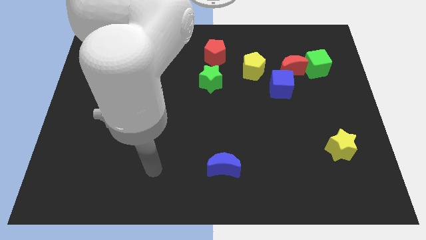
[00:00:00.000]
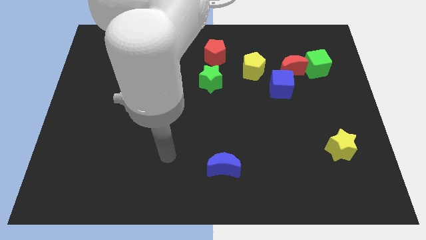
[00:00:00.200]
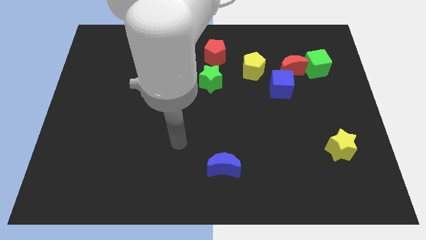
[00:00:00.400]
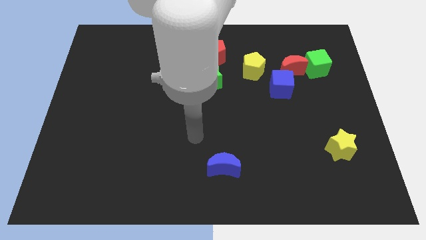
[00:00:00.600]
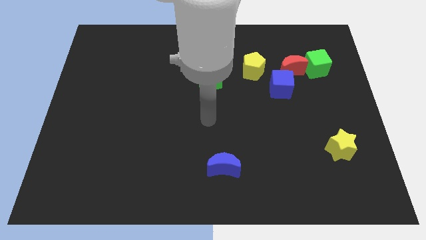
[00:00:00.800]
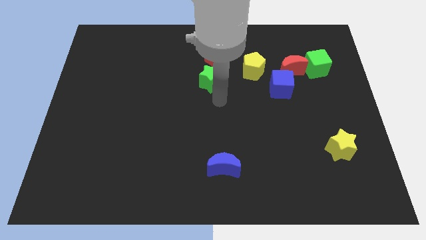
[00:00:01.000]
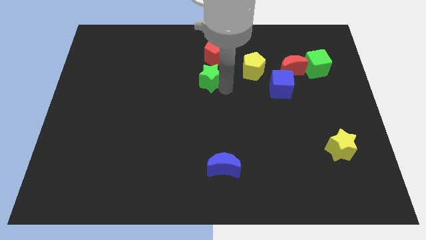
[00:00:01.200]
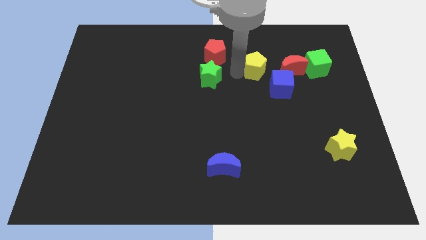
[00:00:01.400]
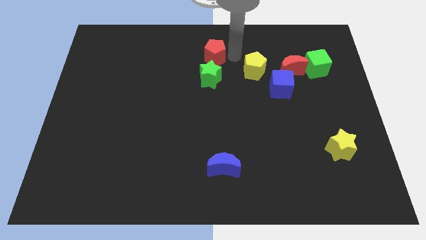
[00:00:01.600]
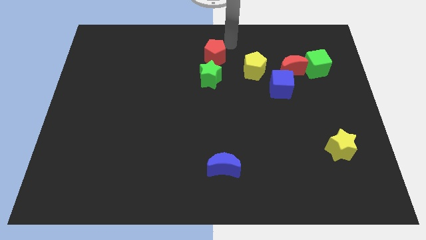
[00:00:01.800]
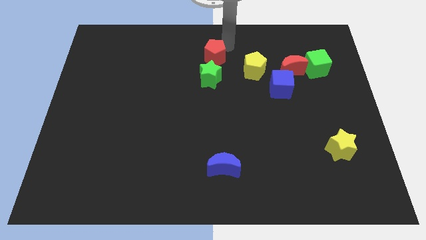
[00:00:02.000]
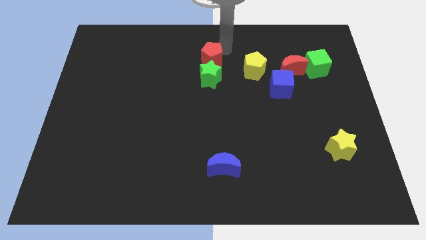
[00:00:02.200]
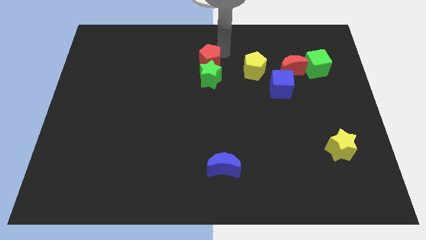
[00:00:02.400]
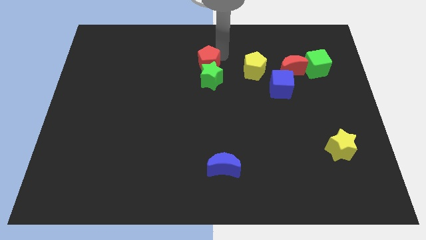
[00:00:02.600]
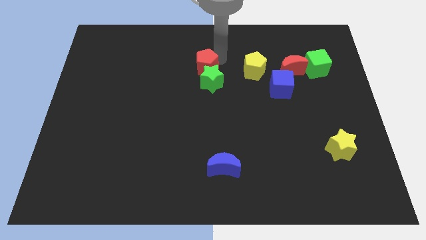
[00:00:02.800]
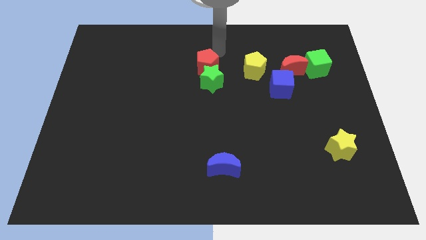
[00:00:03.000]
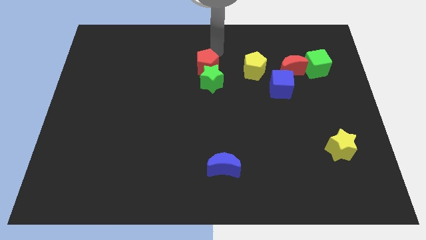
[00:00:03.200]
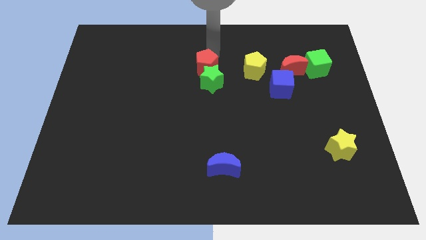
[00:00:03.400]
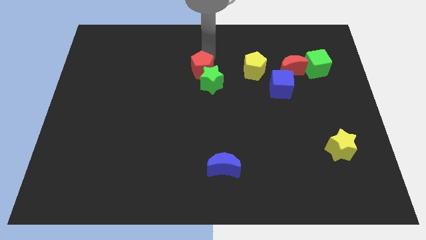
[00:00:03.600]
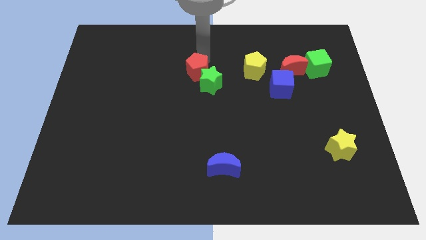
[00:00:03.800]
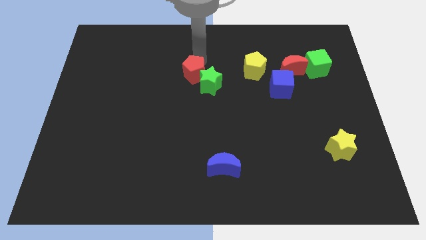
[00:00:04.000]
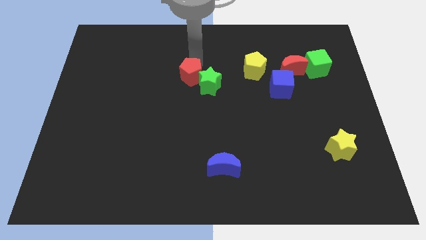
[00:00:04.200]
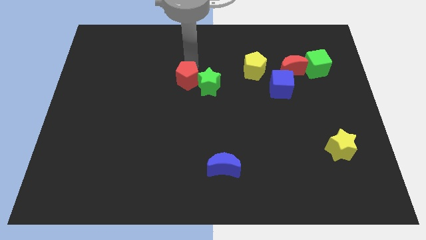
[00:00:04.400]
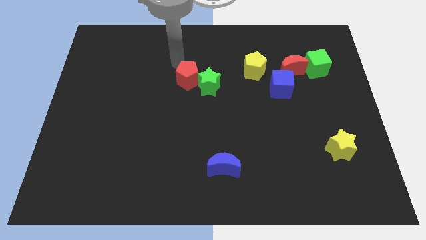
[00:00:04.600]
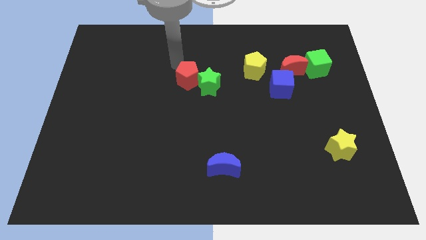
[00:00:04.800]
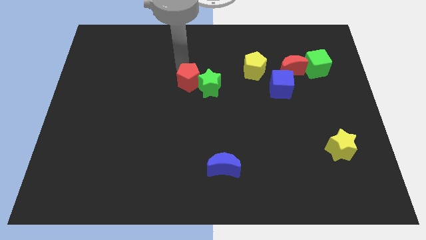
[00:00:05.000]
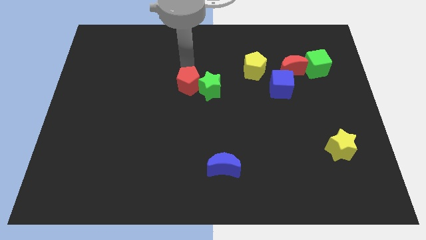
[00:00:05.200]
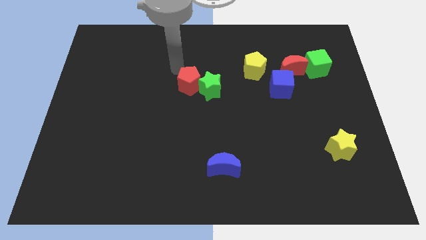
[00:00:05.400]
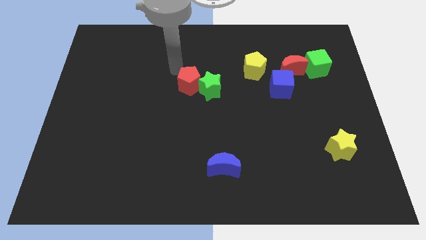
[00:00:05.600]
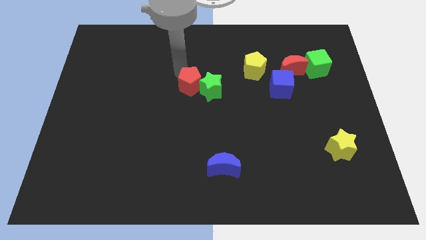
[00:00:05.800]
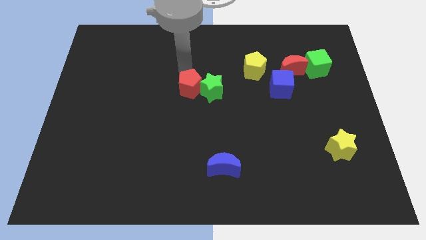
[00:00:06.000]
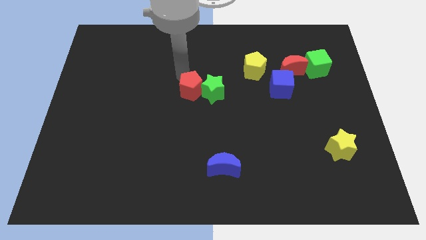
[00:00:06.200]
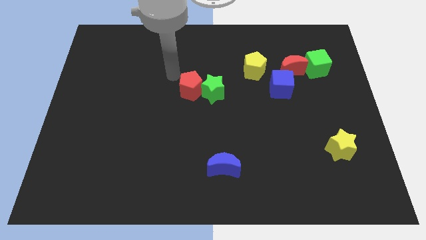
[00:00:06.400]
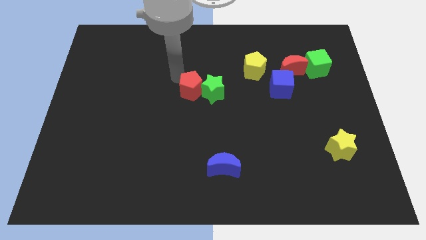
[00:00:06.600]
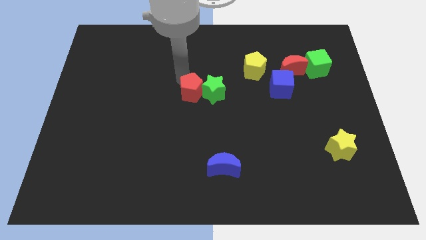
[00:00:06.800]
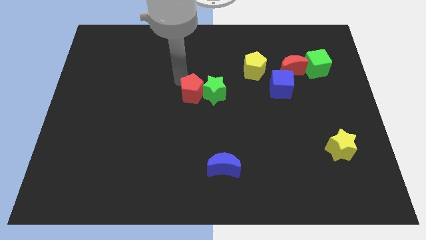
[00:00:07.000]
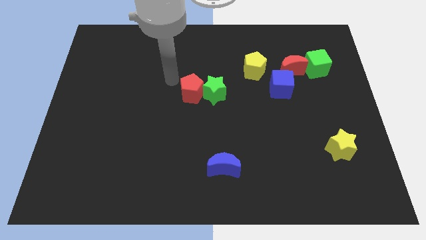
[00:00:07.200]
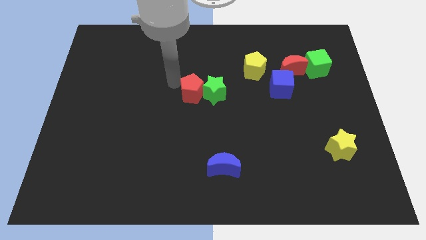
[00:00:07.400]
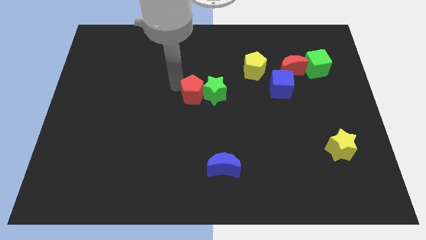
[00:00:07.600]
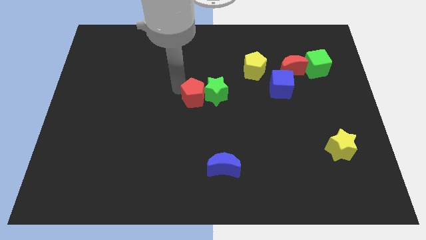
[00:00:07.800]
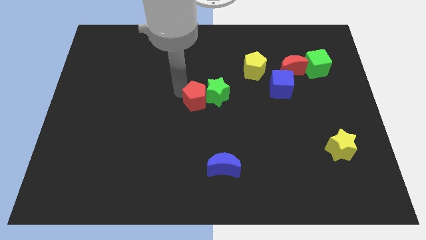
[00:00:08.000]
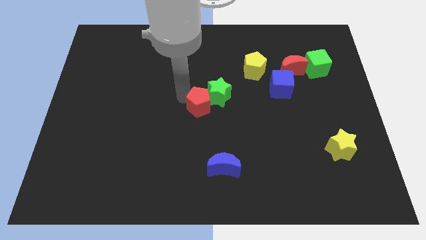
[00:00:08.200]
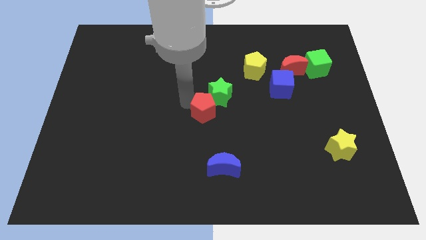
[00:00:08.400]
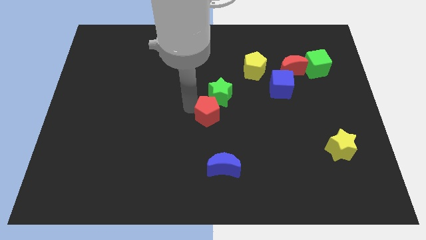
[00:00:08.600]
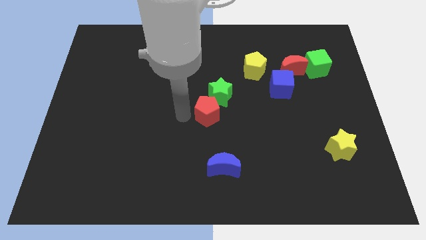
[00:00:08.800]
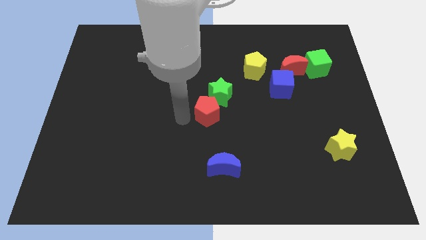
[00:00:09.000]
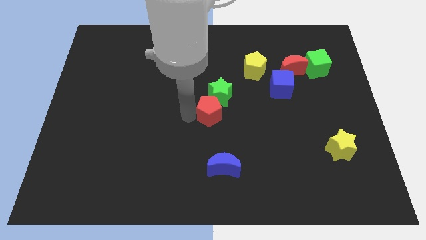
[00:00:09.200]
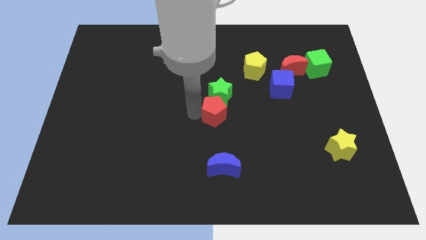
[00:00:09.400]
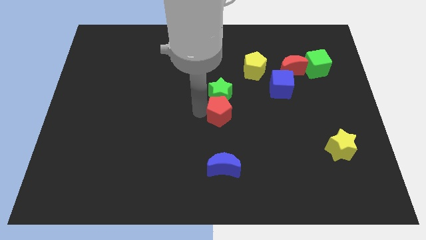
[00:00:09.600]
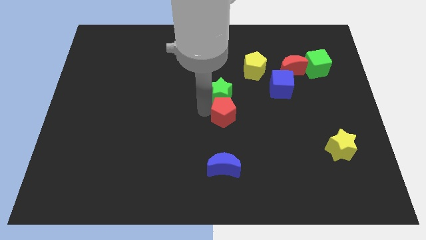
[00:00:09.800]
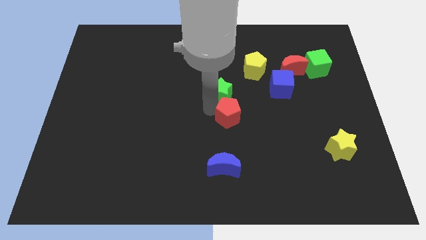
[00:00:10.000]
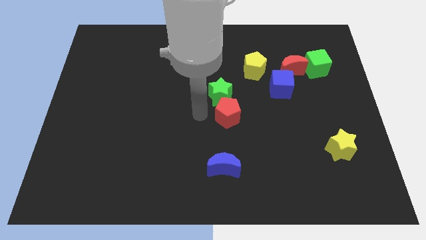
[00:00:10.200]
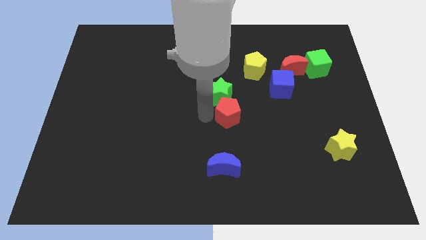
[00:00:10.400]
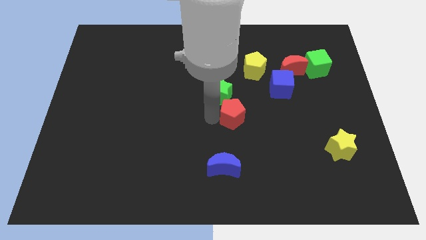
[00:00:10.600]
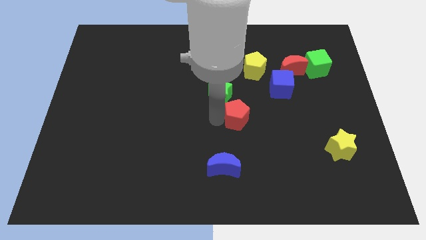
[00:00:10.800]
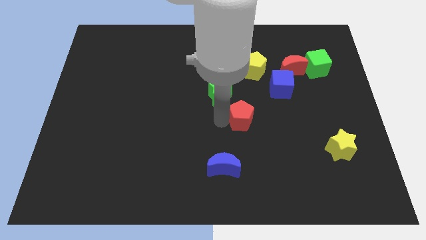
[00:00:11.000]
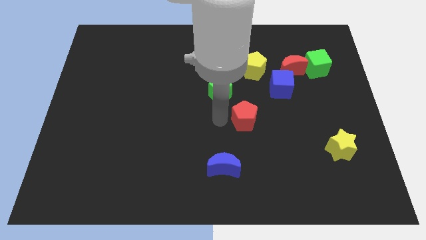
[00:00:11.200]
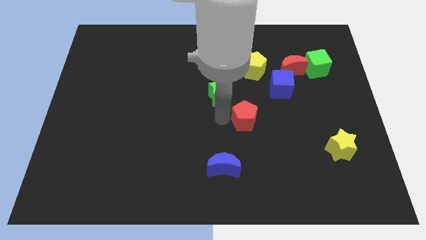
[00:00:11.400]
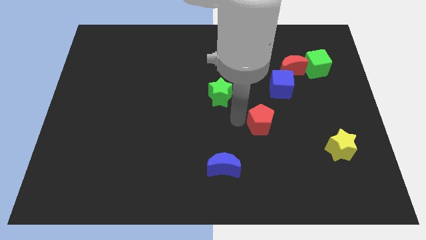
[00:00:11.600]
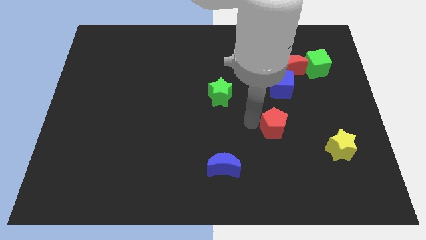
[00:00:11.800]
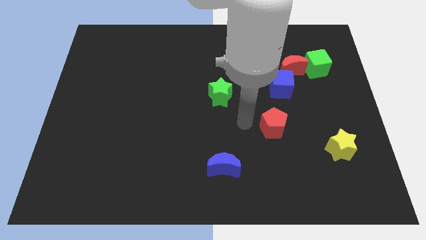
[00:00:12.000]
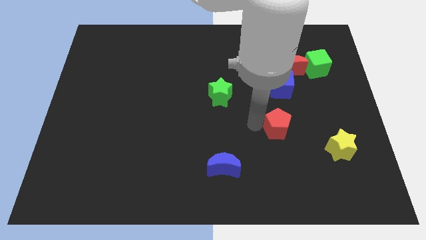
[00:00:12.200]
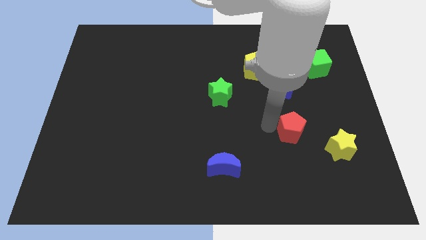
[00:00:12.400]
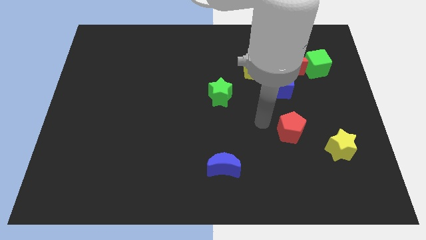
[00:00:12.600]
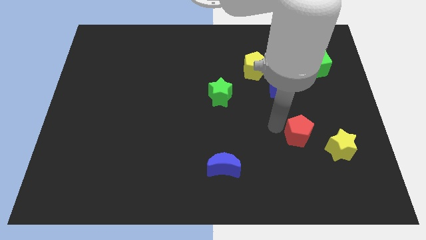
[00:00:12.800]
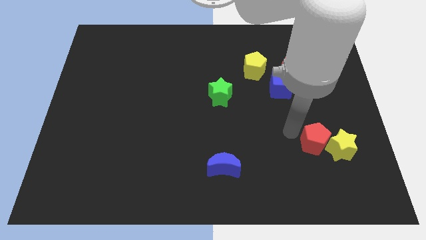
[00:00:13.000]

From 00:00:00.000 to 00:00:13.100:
put the red pentagon next to the yellow star

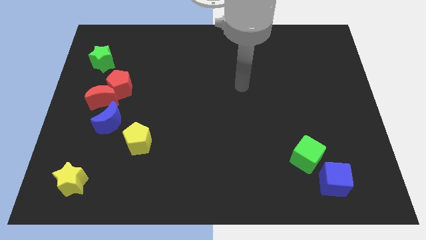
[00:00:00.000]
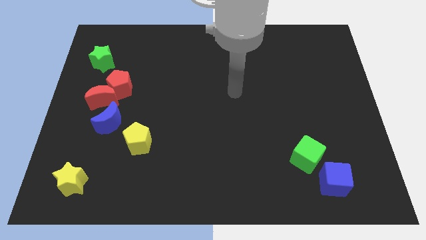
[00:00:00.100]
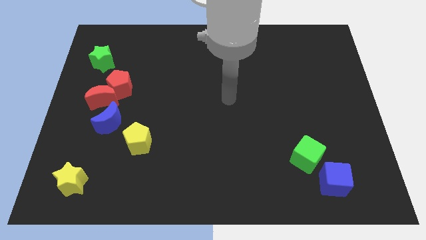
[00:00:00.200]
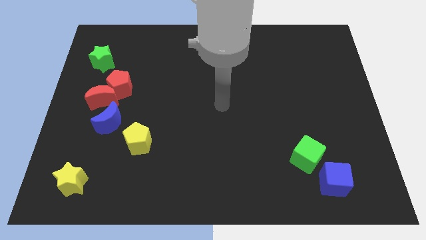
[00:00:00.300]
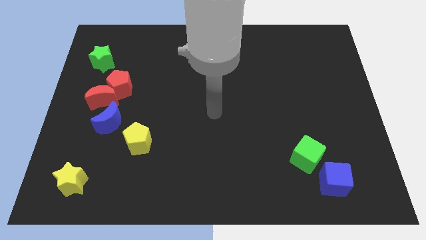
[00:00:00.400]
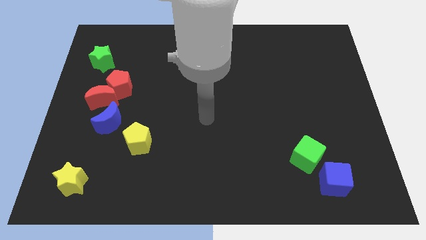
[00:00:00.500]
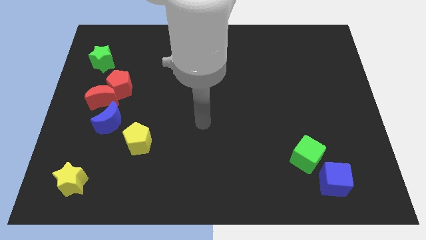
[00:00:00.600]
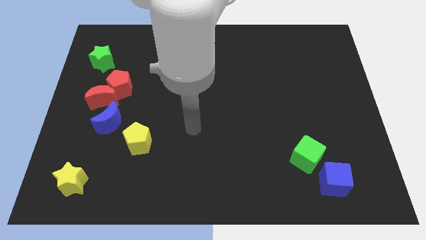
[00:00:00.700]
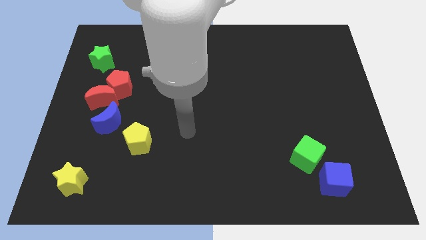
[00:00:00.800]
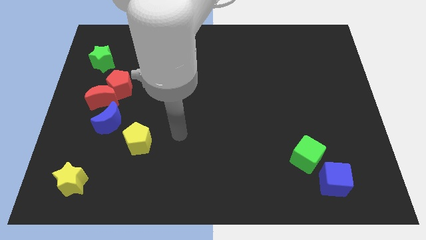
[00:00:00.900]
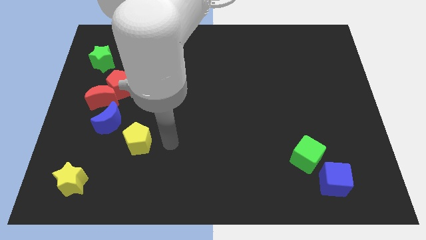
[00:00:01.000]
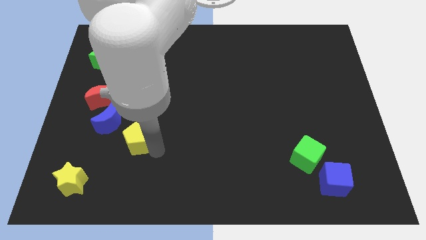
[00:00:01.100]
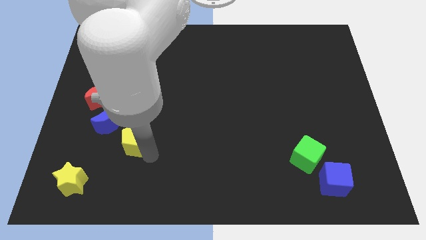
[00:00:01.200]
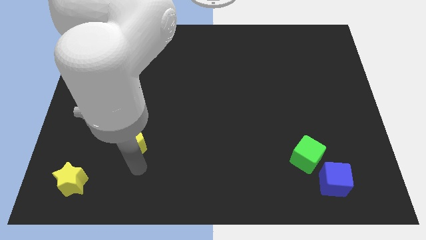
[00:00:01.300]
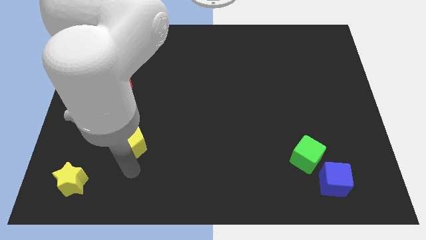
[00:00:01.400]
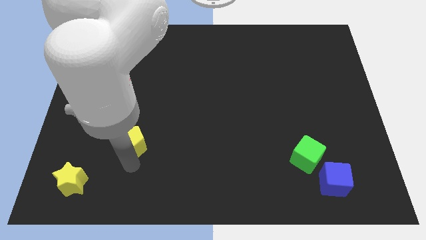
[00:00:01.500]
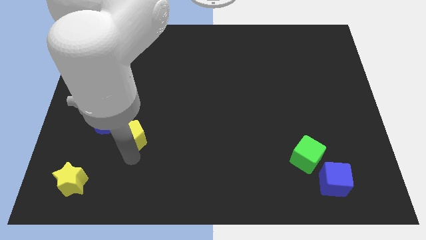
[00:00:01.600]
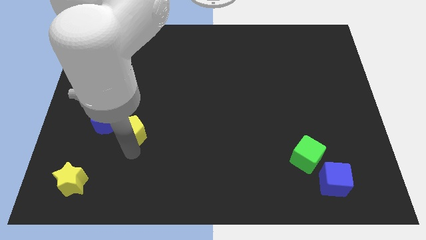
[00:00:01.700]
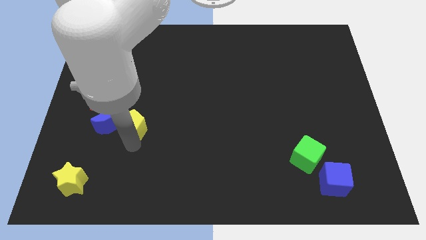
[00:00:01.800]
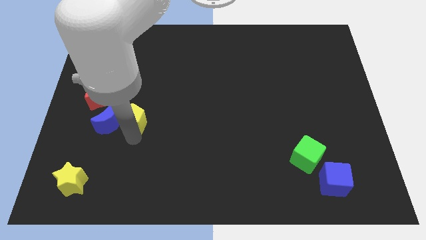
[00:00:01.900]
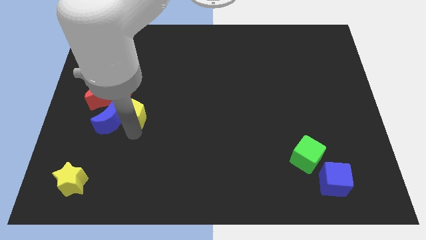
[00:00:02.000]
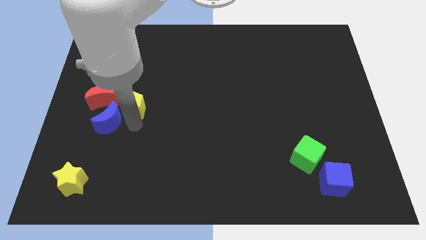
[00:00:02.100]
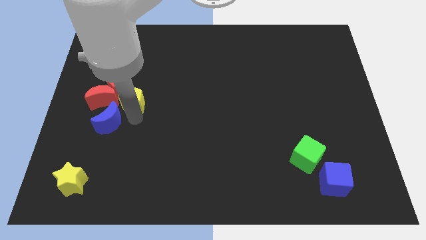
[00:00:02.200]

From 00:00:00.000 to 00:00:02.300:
push the yellow pentagon next to the red pentagon
